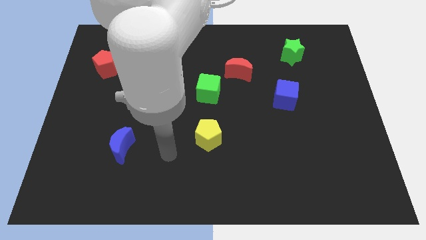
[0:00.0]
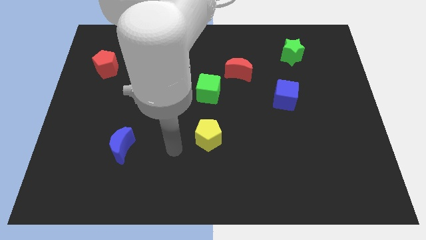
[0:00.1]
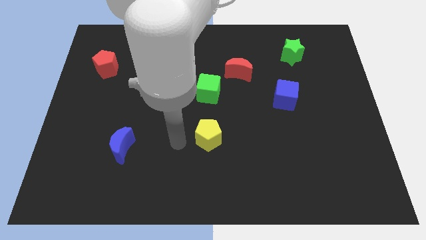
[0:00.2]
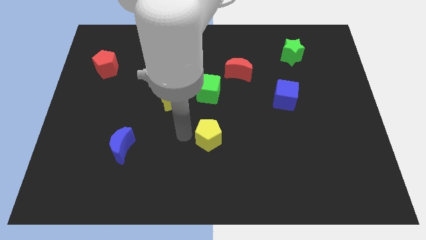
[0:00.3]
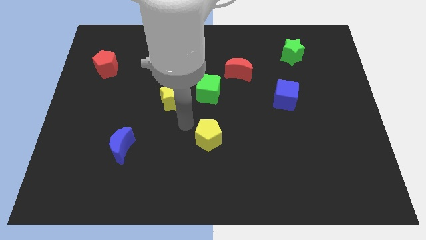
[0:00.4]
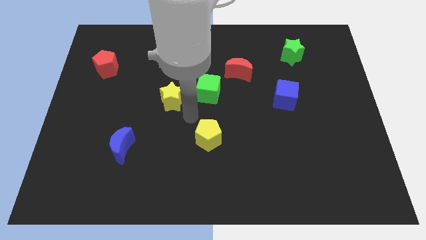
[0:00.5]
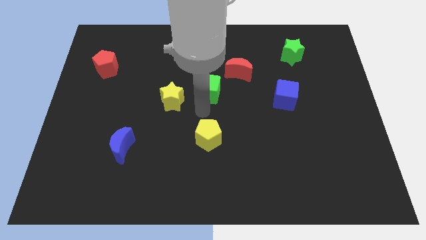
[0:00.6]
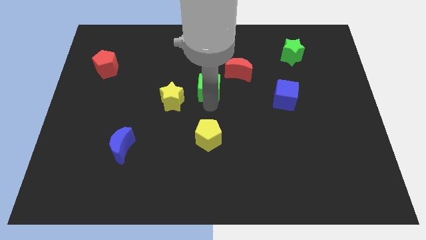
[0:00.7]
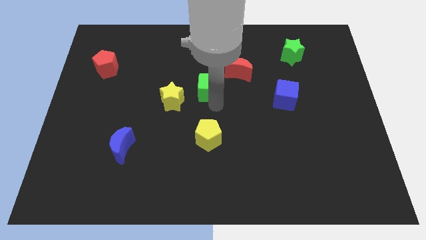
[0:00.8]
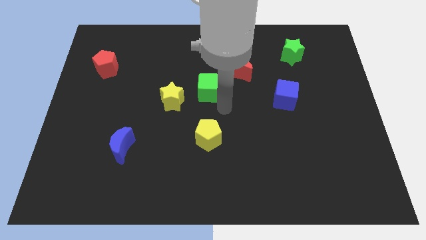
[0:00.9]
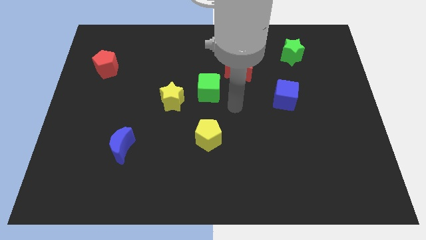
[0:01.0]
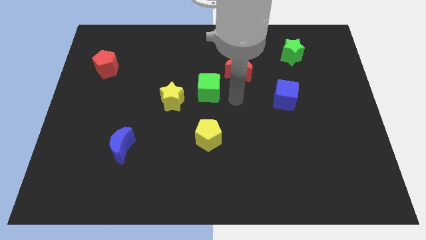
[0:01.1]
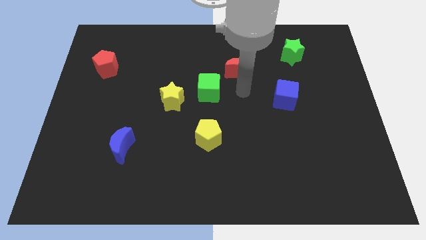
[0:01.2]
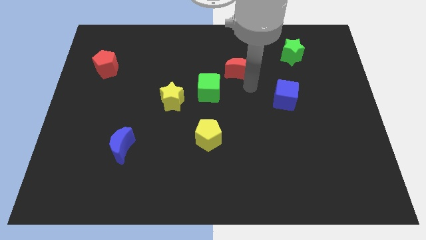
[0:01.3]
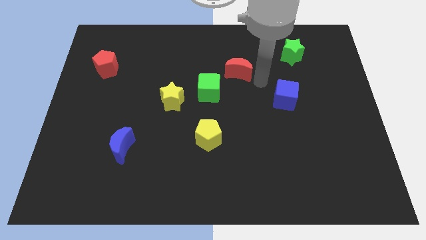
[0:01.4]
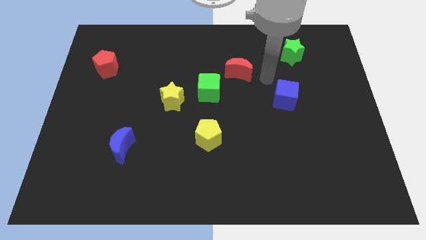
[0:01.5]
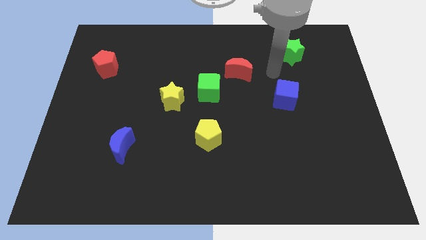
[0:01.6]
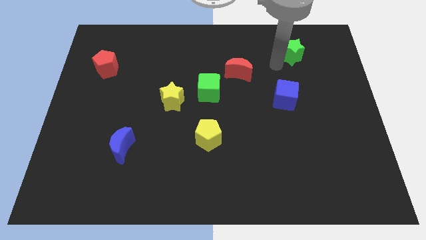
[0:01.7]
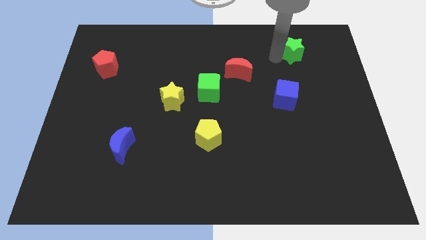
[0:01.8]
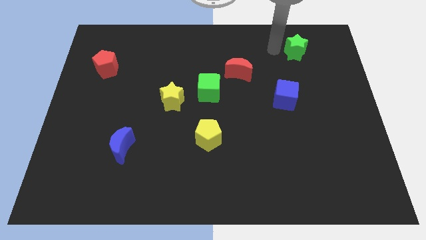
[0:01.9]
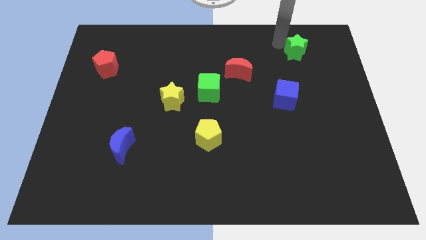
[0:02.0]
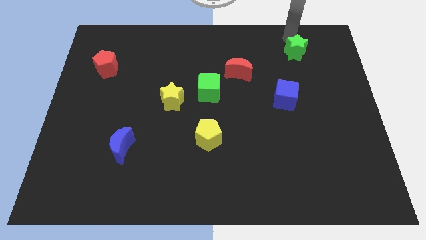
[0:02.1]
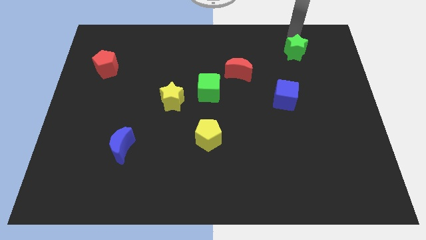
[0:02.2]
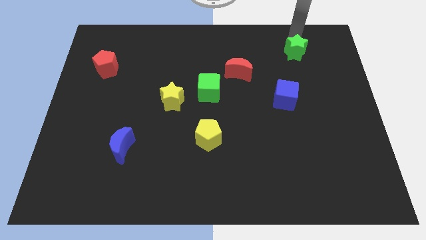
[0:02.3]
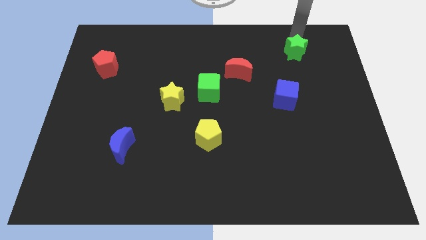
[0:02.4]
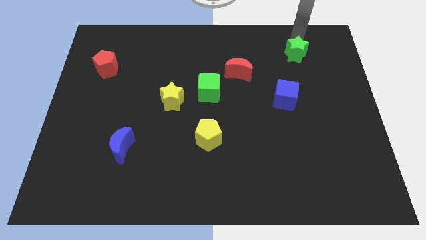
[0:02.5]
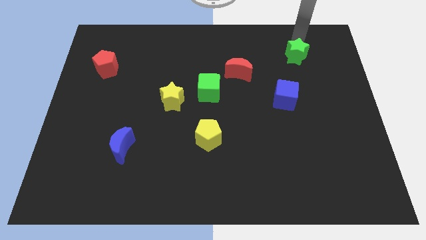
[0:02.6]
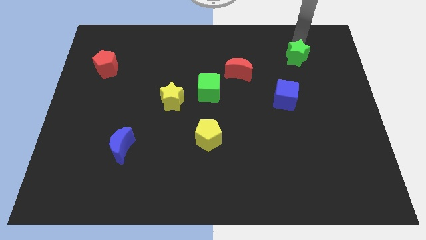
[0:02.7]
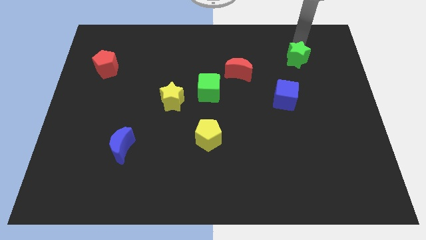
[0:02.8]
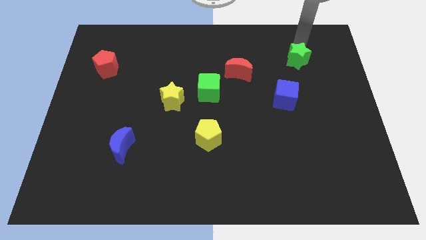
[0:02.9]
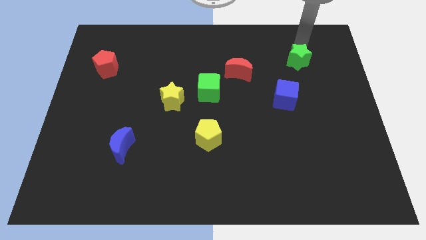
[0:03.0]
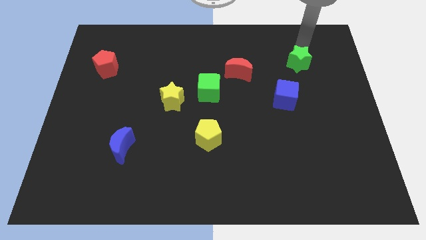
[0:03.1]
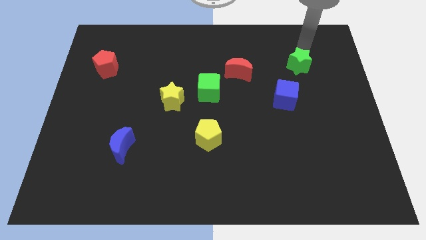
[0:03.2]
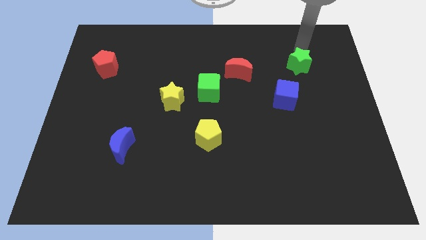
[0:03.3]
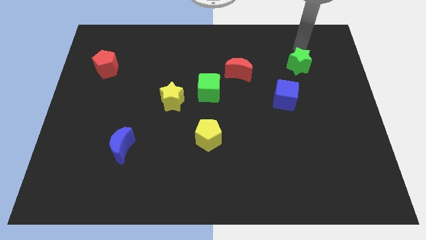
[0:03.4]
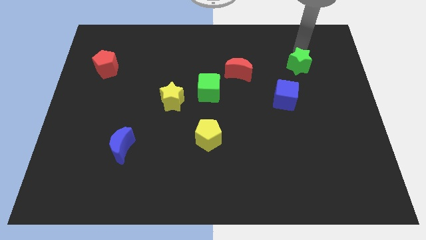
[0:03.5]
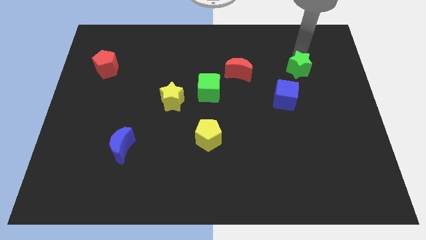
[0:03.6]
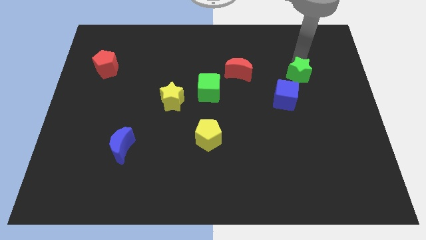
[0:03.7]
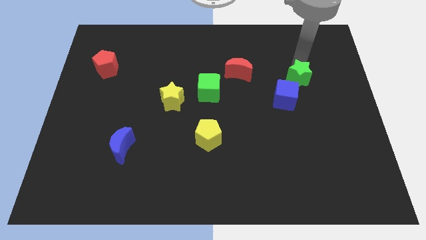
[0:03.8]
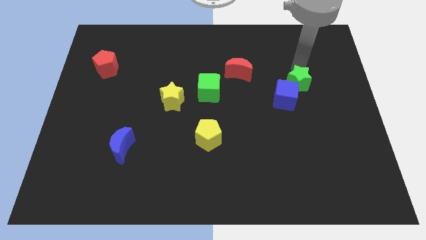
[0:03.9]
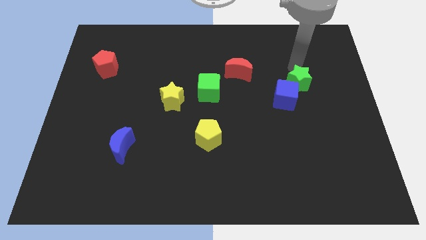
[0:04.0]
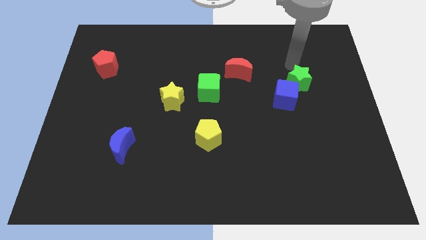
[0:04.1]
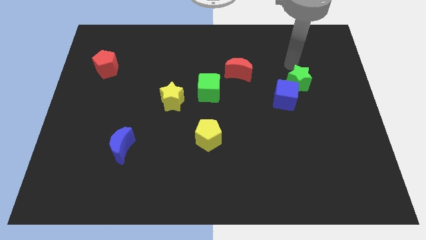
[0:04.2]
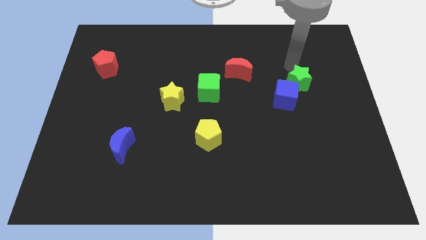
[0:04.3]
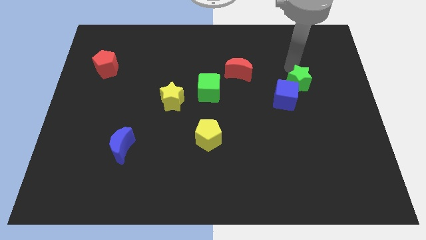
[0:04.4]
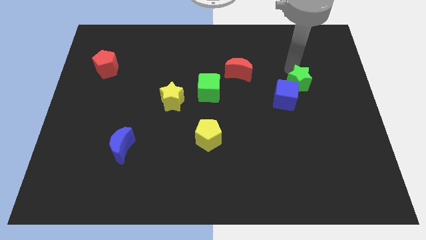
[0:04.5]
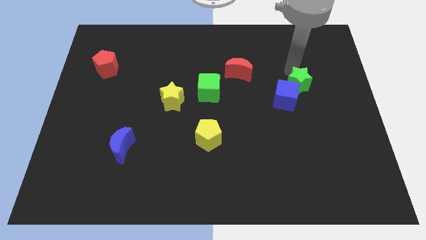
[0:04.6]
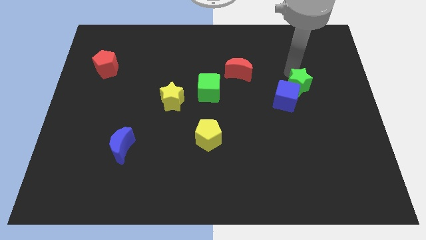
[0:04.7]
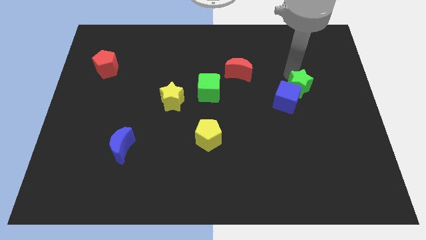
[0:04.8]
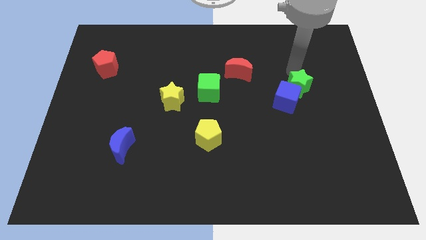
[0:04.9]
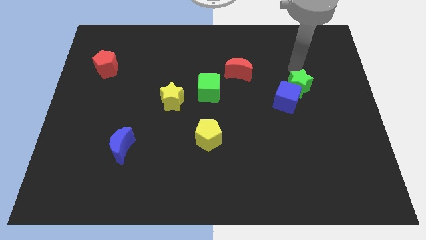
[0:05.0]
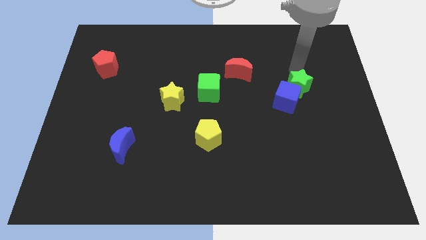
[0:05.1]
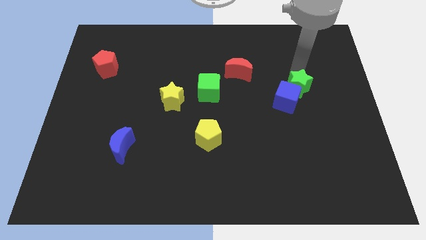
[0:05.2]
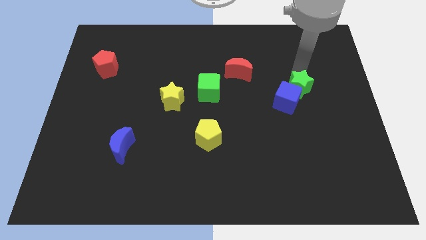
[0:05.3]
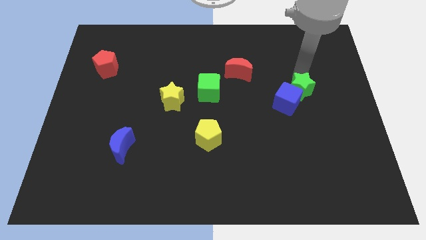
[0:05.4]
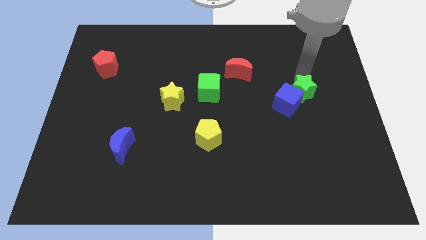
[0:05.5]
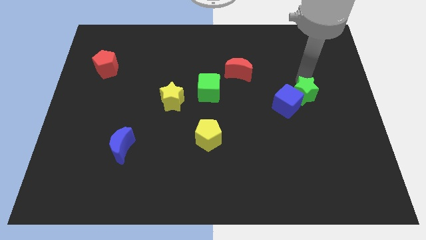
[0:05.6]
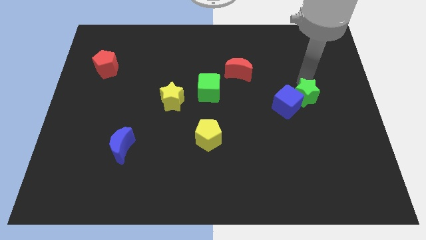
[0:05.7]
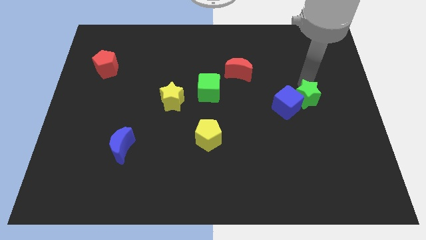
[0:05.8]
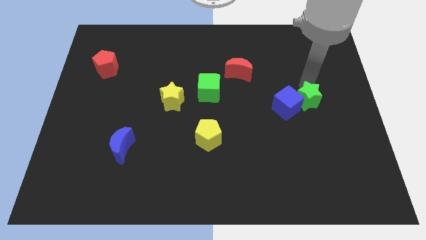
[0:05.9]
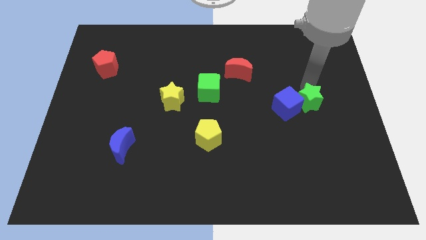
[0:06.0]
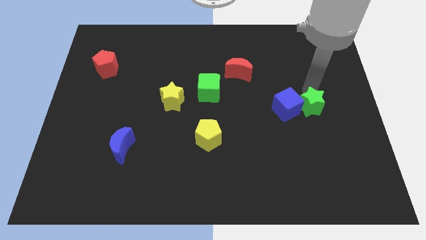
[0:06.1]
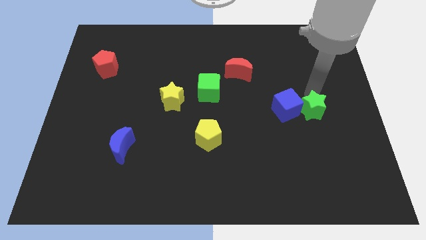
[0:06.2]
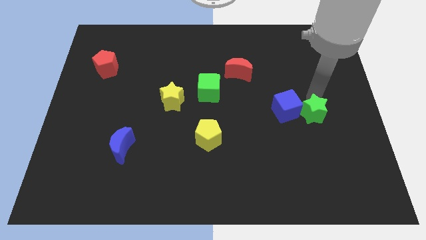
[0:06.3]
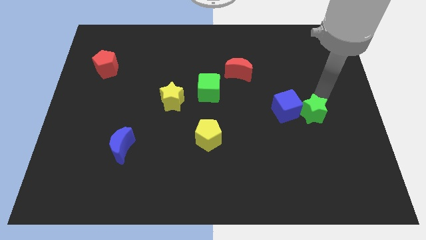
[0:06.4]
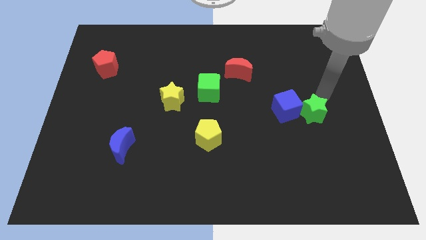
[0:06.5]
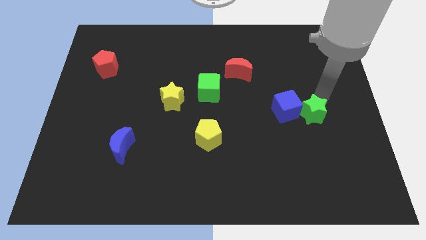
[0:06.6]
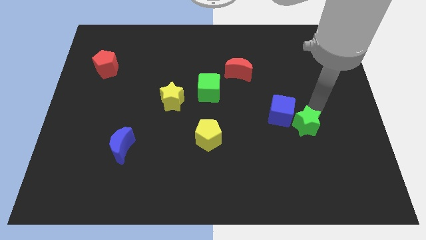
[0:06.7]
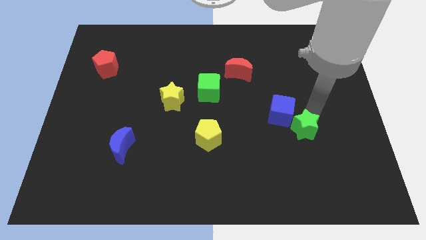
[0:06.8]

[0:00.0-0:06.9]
push the green star to the bottom of the blue cube
